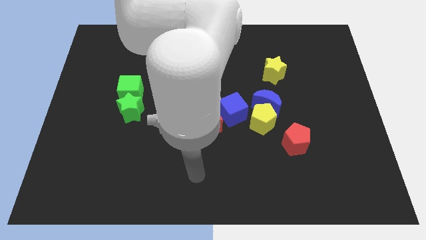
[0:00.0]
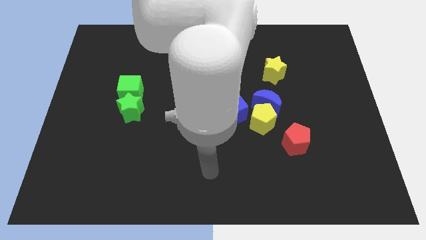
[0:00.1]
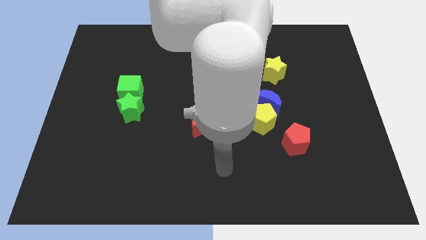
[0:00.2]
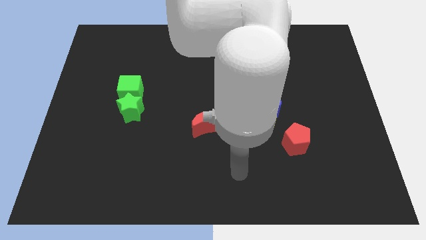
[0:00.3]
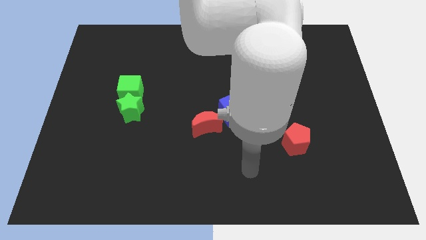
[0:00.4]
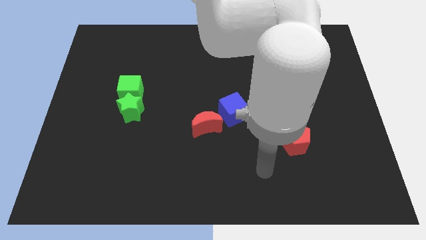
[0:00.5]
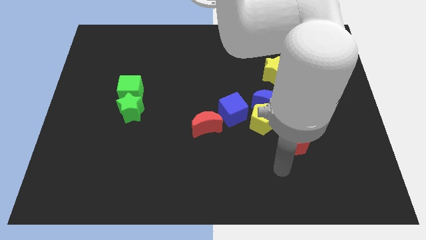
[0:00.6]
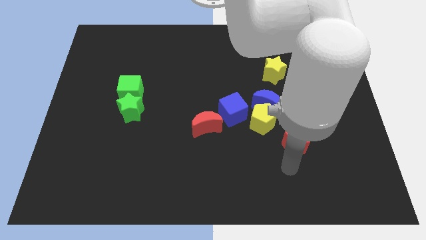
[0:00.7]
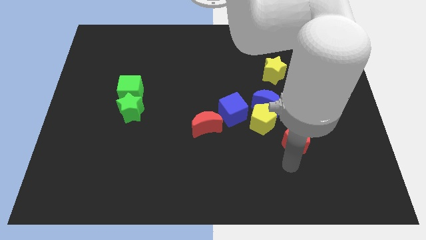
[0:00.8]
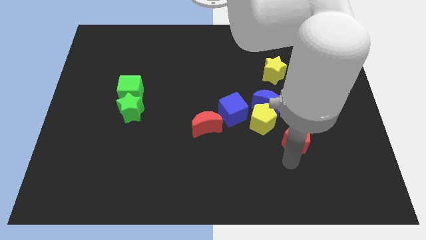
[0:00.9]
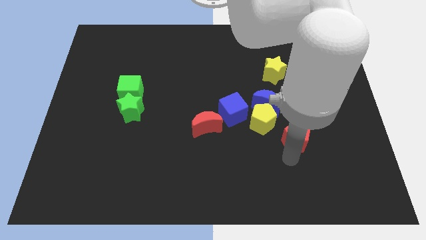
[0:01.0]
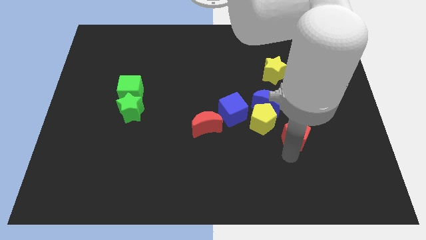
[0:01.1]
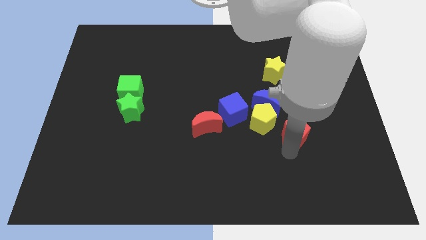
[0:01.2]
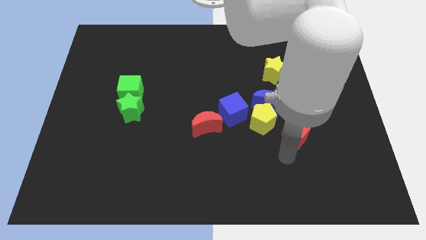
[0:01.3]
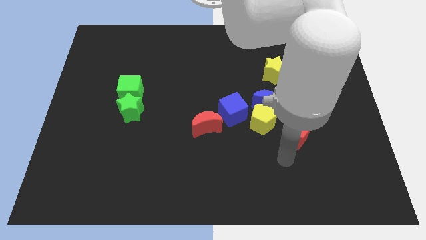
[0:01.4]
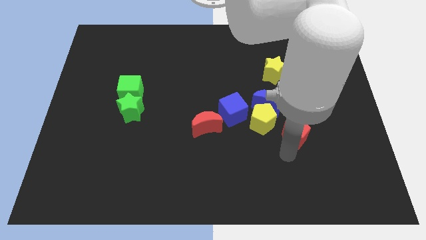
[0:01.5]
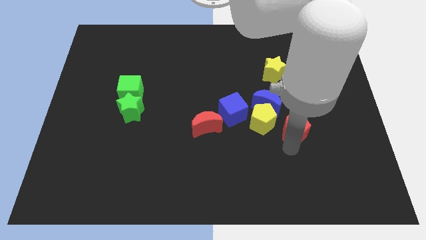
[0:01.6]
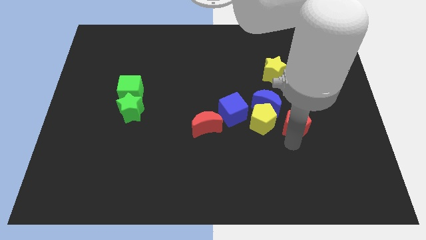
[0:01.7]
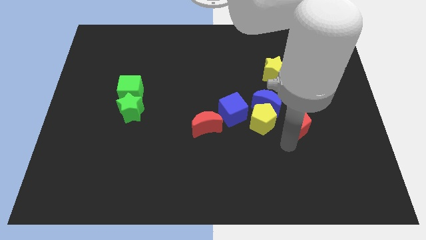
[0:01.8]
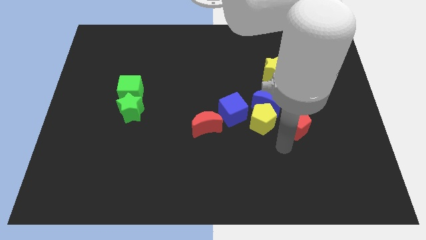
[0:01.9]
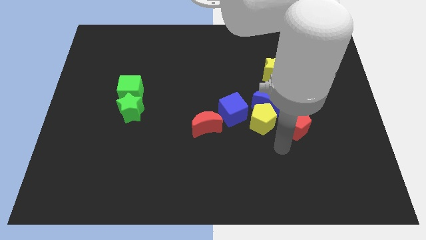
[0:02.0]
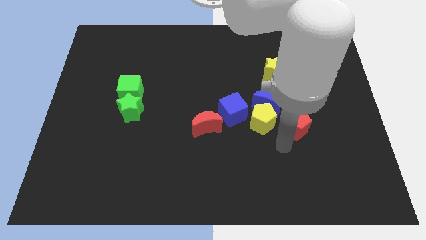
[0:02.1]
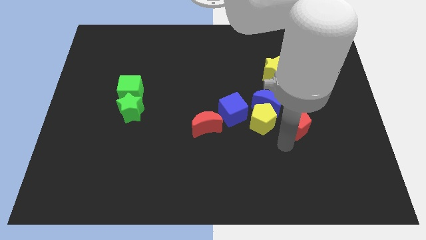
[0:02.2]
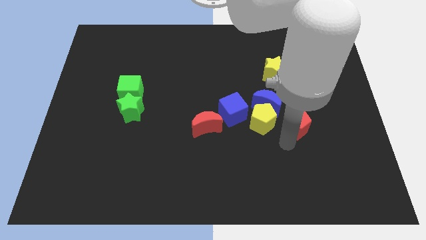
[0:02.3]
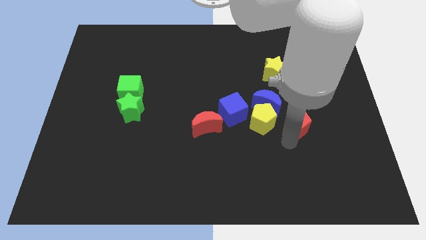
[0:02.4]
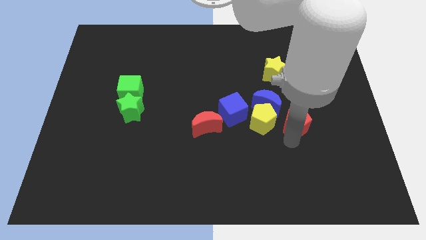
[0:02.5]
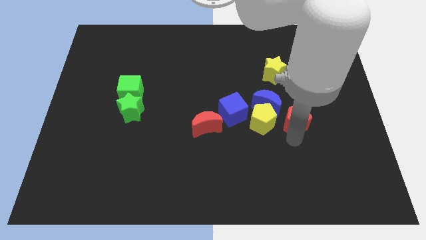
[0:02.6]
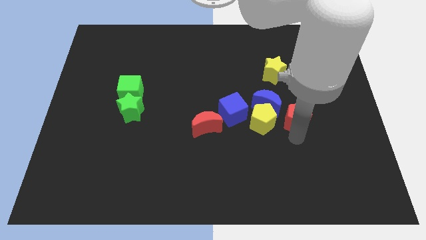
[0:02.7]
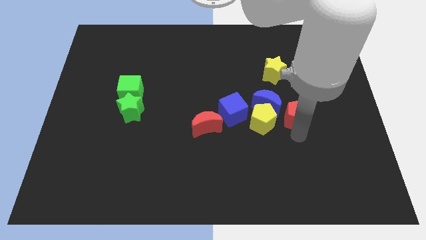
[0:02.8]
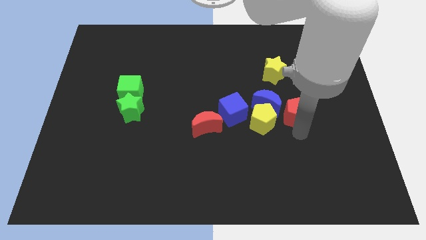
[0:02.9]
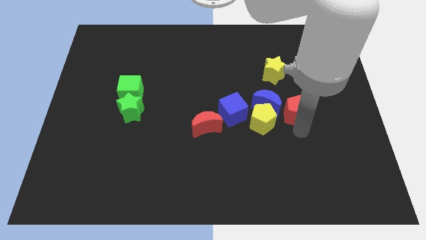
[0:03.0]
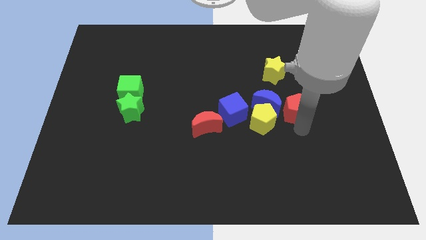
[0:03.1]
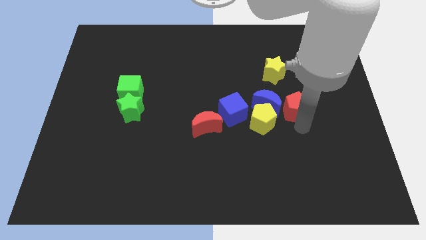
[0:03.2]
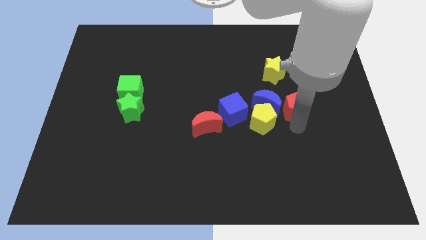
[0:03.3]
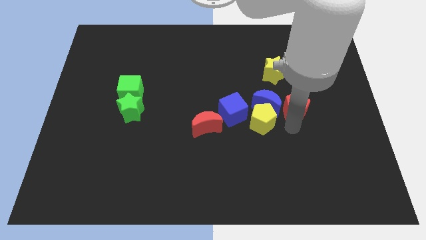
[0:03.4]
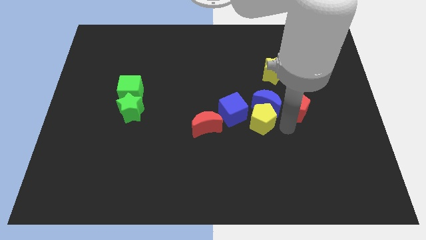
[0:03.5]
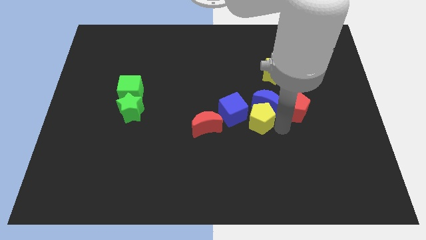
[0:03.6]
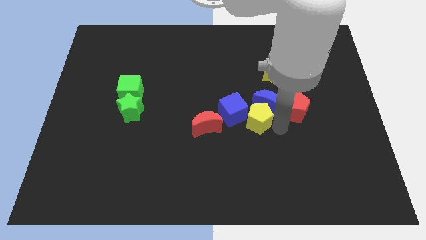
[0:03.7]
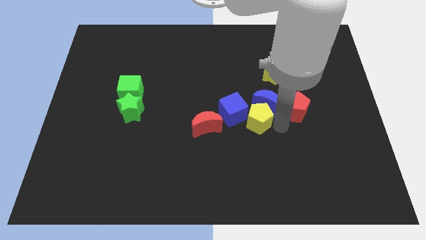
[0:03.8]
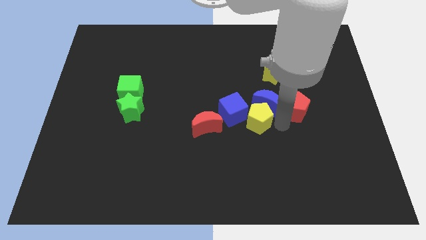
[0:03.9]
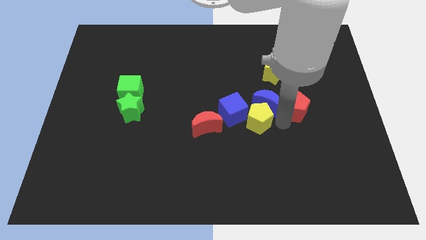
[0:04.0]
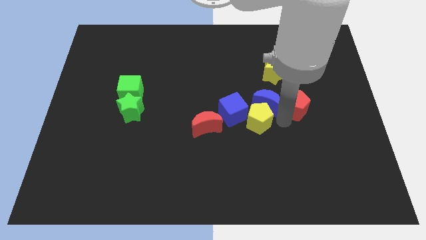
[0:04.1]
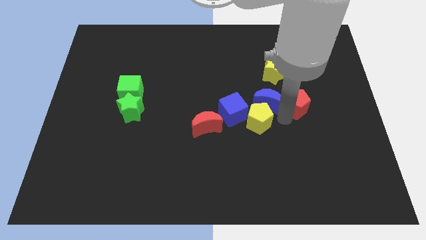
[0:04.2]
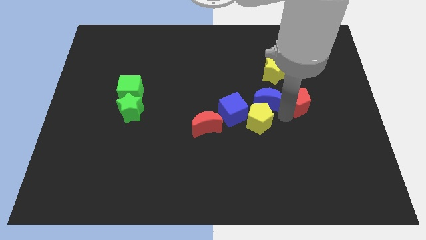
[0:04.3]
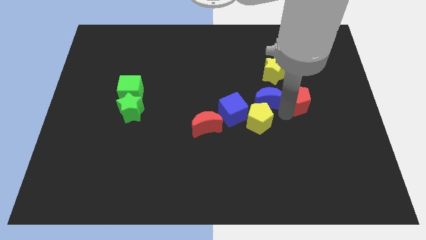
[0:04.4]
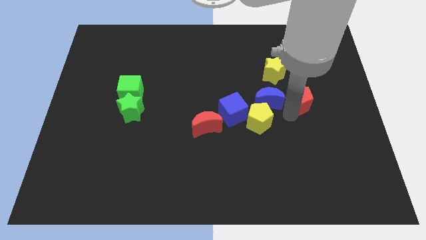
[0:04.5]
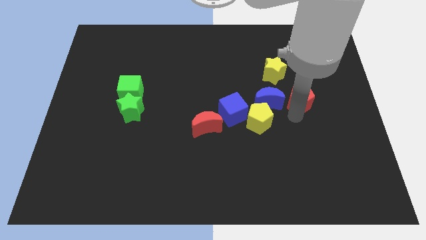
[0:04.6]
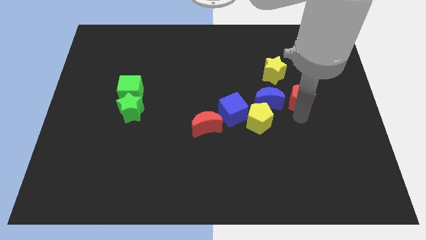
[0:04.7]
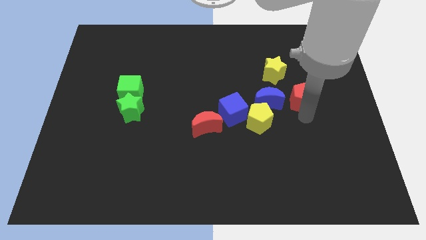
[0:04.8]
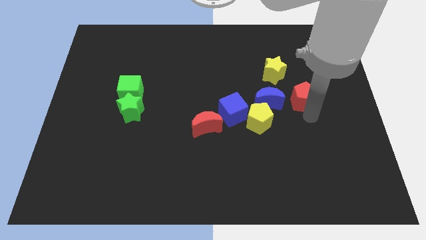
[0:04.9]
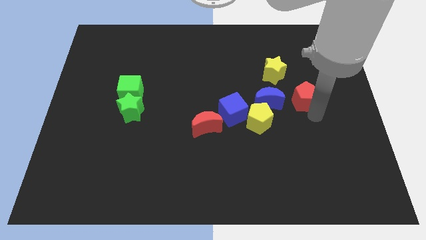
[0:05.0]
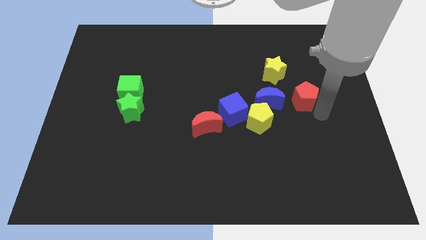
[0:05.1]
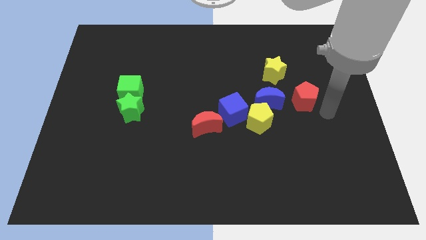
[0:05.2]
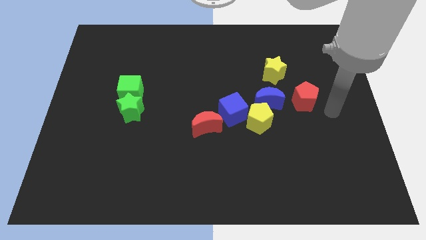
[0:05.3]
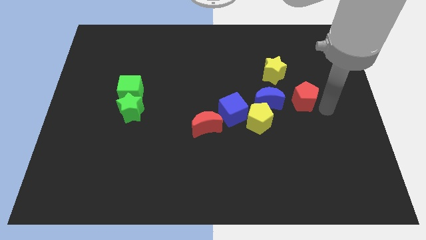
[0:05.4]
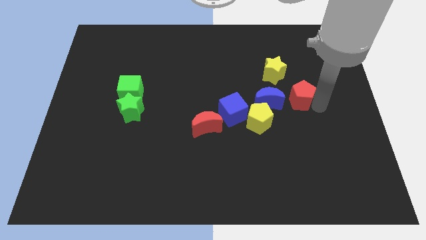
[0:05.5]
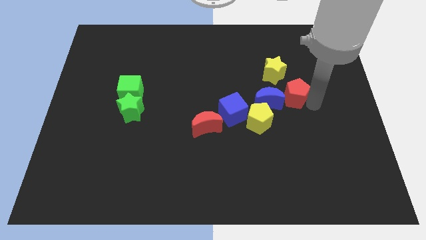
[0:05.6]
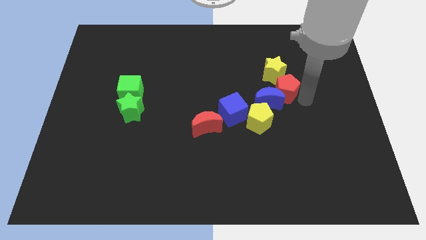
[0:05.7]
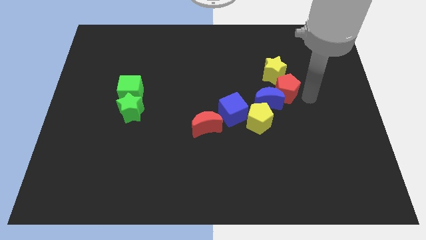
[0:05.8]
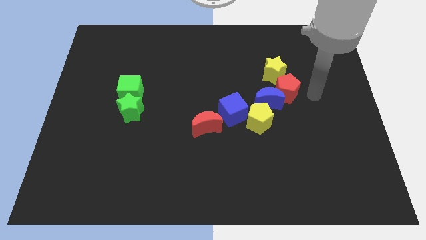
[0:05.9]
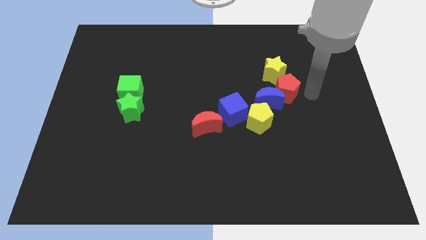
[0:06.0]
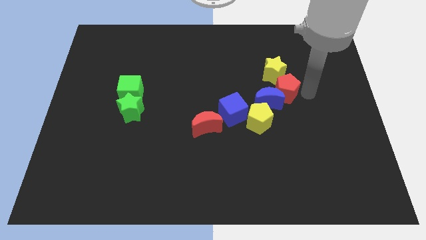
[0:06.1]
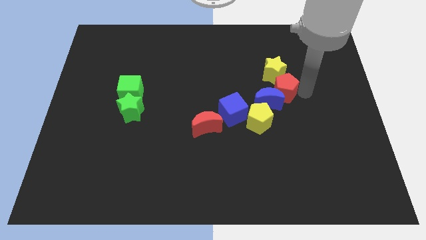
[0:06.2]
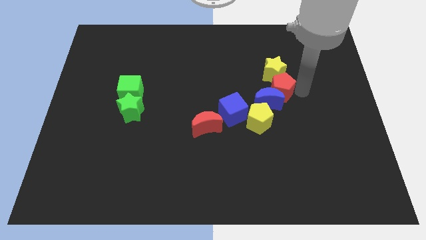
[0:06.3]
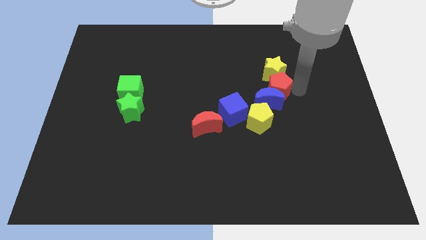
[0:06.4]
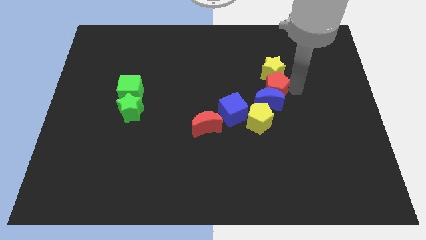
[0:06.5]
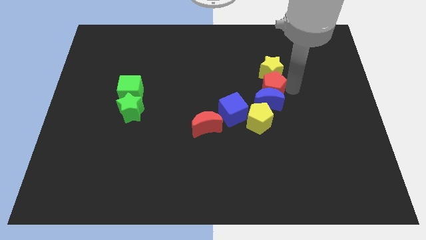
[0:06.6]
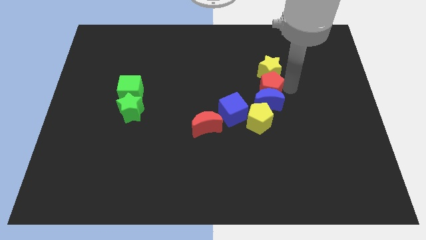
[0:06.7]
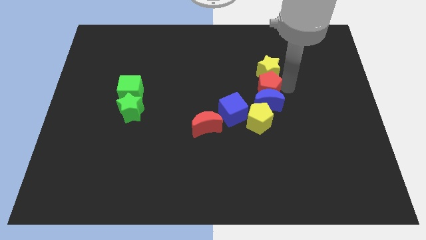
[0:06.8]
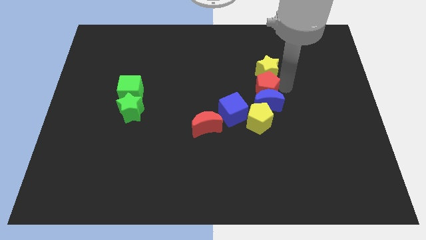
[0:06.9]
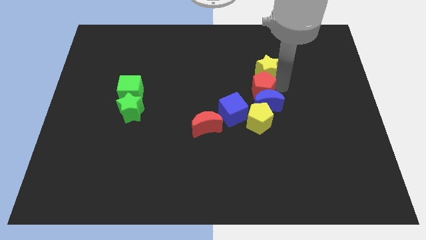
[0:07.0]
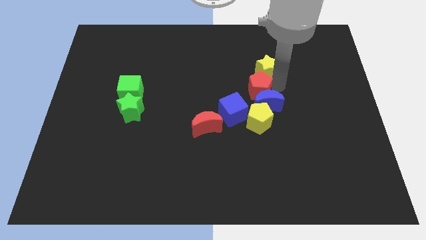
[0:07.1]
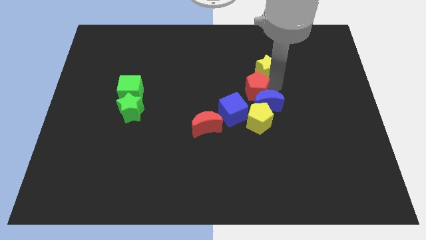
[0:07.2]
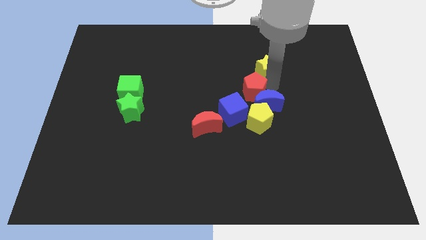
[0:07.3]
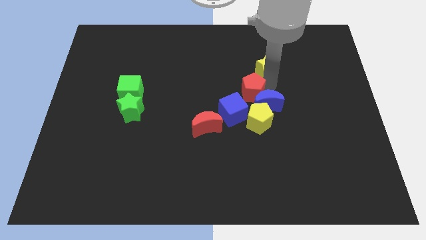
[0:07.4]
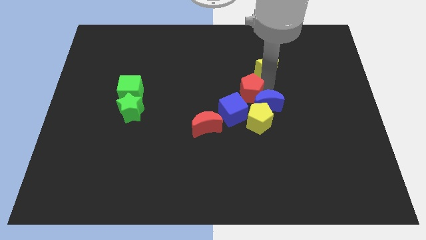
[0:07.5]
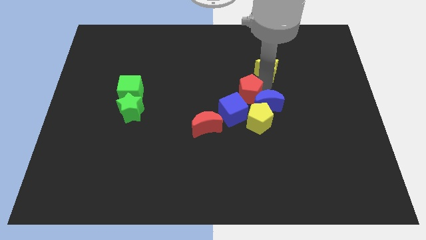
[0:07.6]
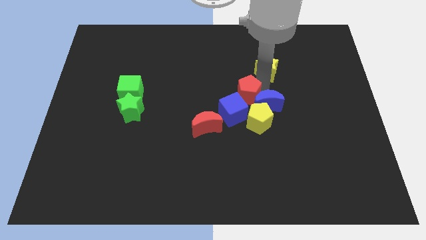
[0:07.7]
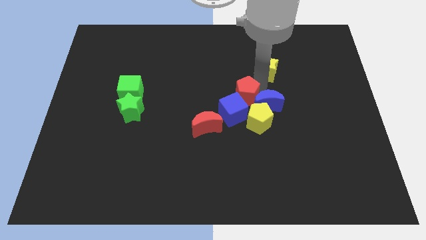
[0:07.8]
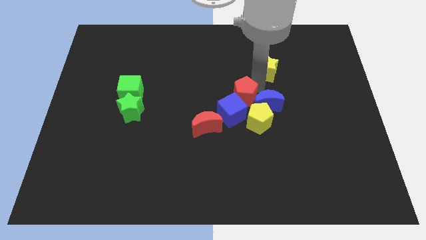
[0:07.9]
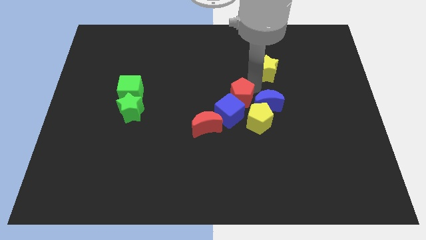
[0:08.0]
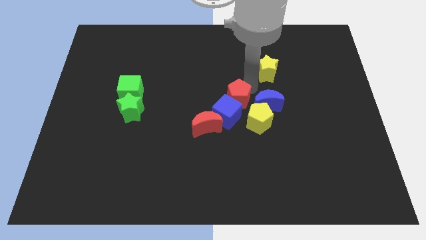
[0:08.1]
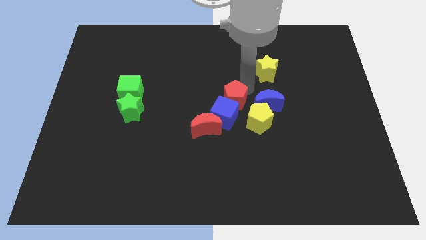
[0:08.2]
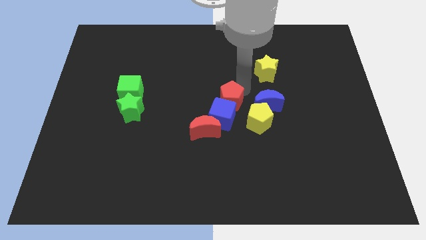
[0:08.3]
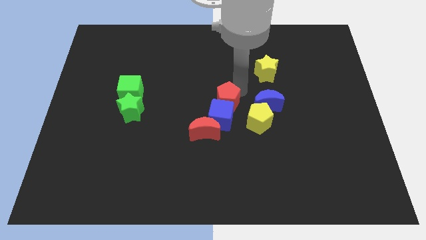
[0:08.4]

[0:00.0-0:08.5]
push the red pentagon to the top left of the blue cube
